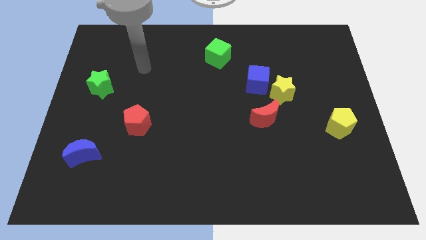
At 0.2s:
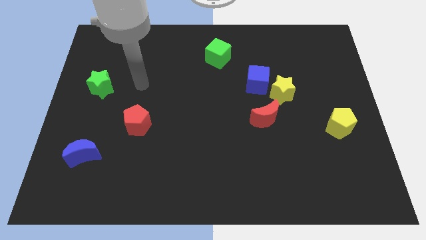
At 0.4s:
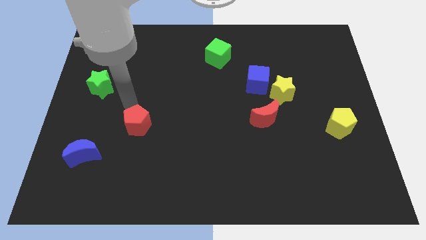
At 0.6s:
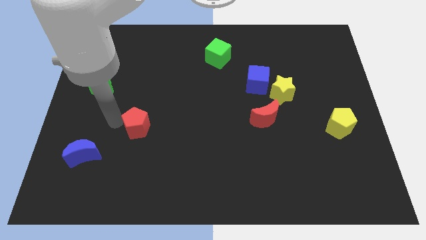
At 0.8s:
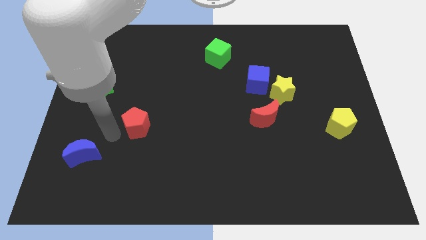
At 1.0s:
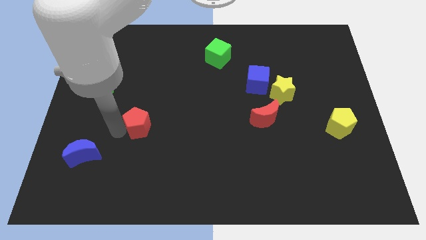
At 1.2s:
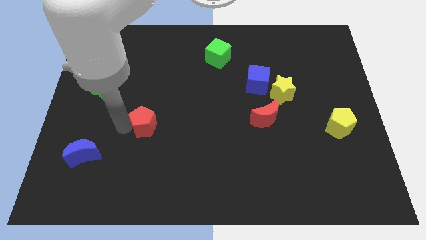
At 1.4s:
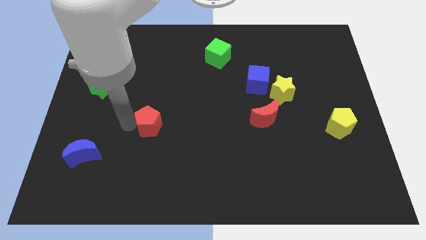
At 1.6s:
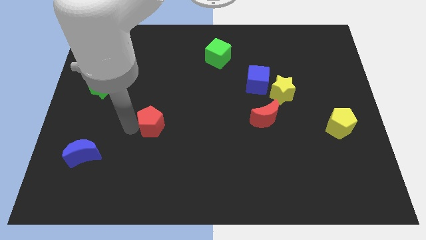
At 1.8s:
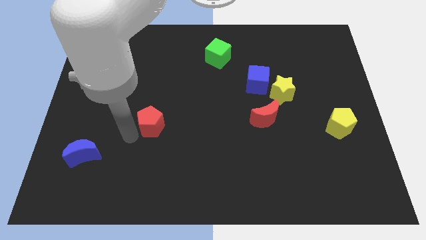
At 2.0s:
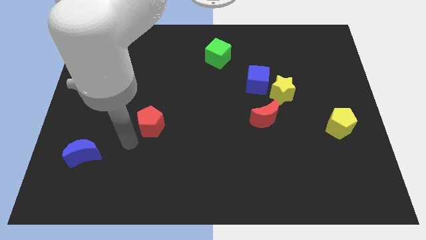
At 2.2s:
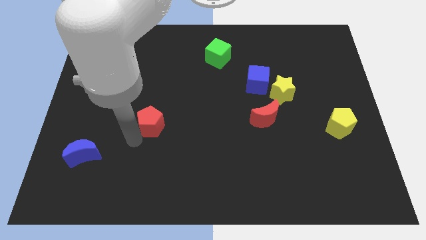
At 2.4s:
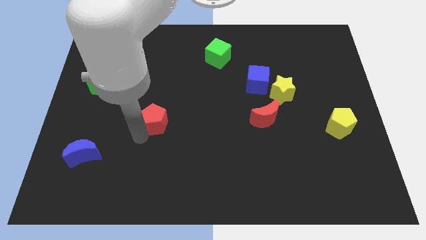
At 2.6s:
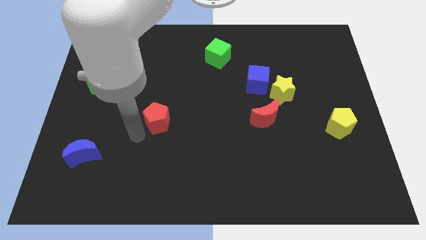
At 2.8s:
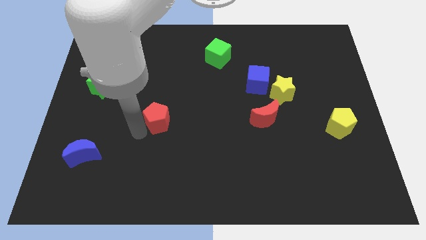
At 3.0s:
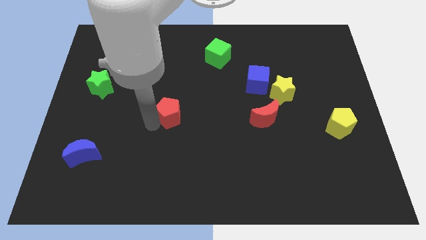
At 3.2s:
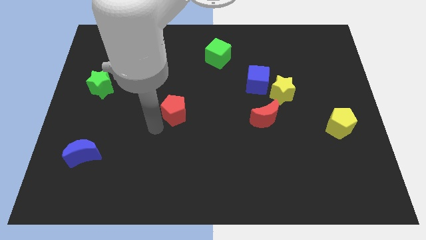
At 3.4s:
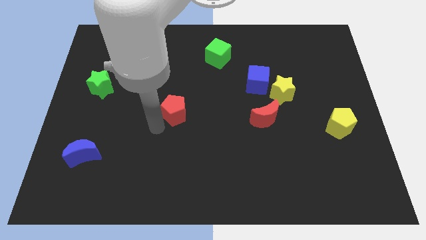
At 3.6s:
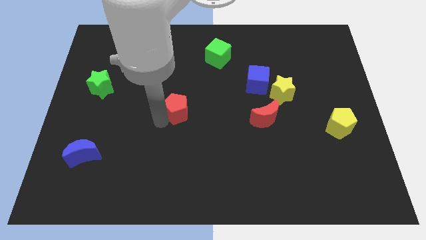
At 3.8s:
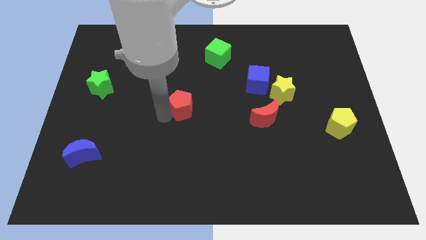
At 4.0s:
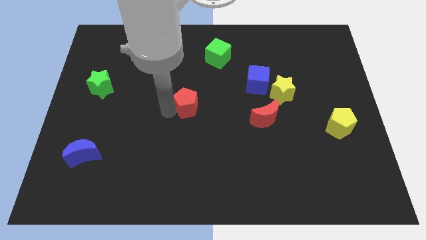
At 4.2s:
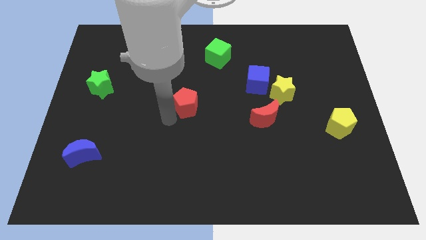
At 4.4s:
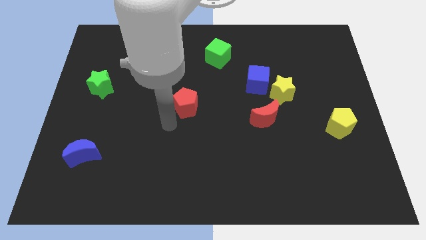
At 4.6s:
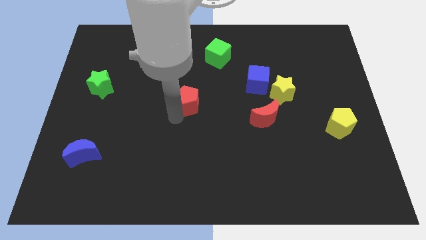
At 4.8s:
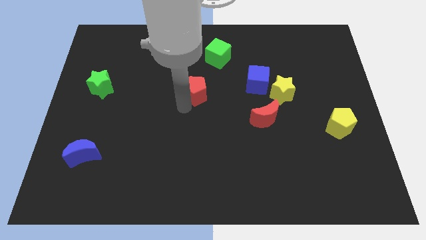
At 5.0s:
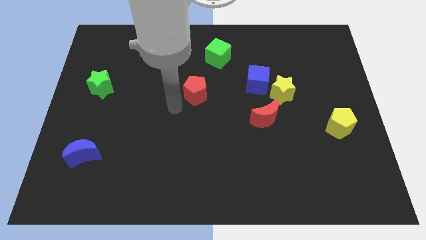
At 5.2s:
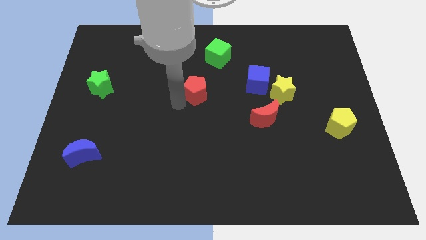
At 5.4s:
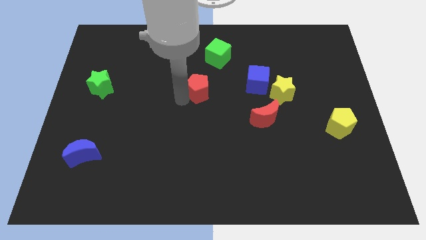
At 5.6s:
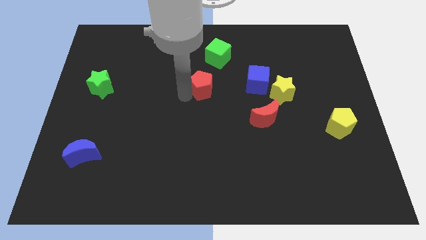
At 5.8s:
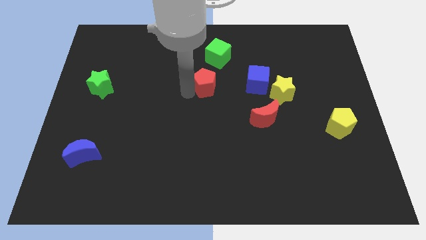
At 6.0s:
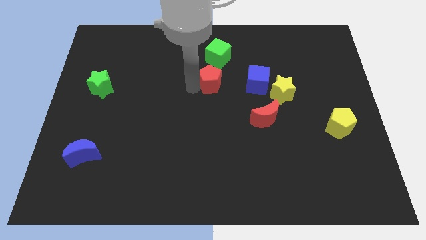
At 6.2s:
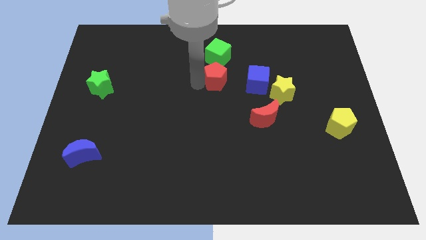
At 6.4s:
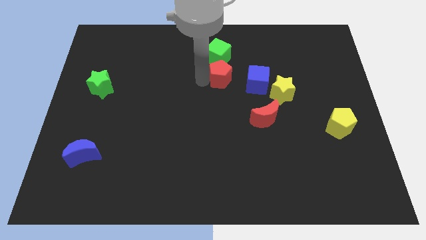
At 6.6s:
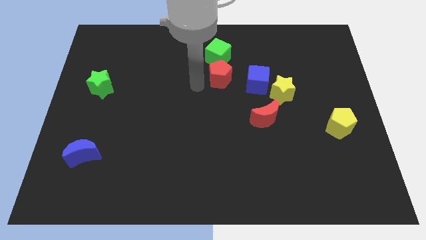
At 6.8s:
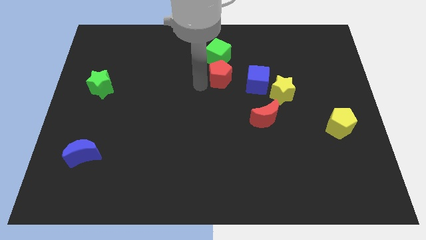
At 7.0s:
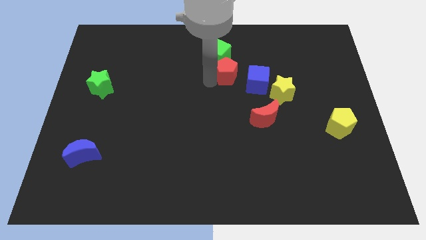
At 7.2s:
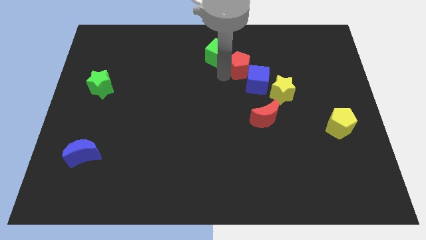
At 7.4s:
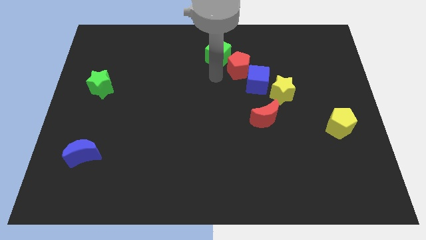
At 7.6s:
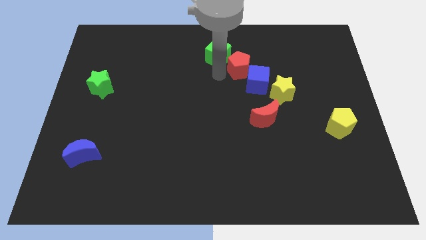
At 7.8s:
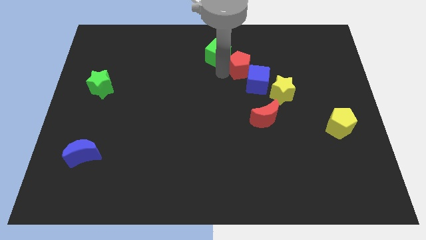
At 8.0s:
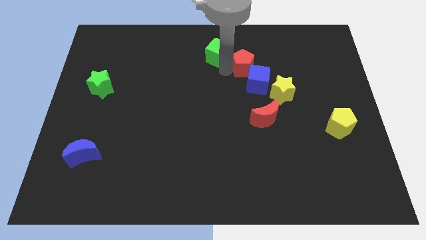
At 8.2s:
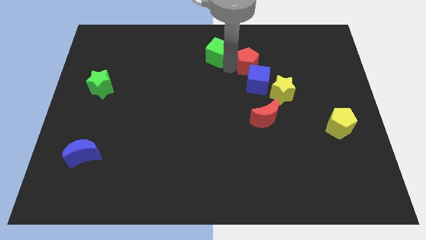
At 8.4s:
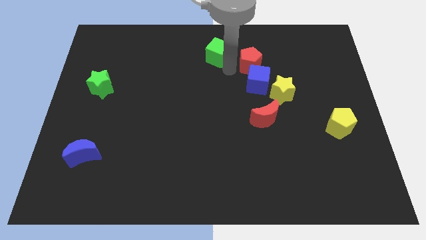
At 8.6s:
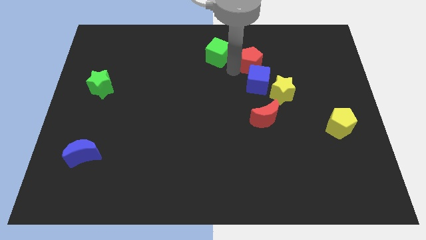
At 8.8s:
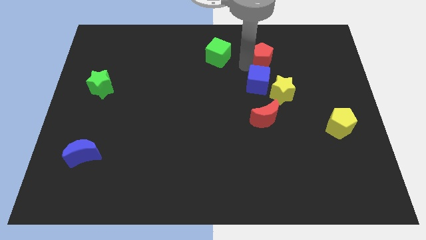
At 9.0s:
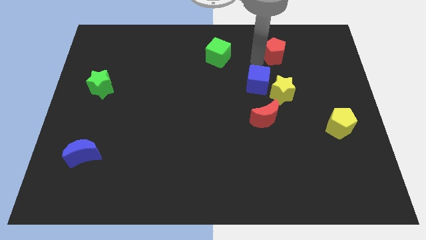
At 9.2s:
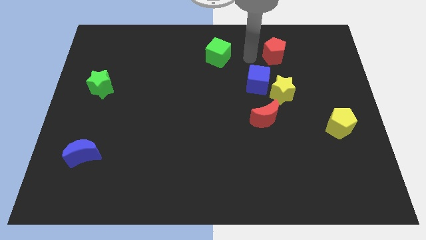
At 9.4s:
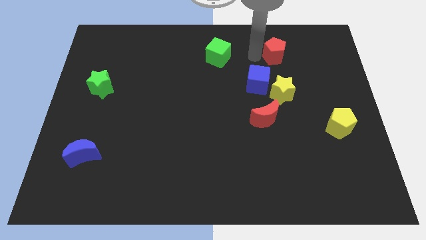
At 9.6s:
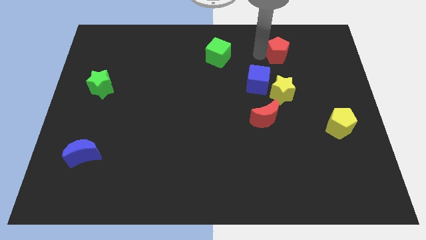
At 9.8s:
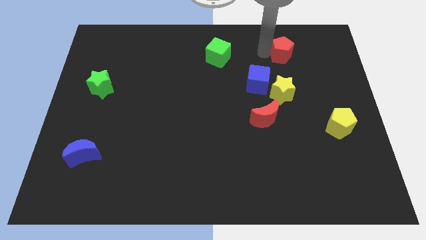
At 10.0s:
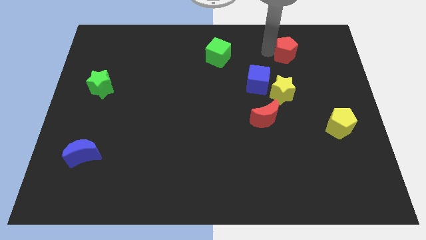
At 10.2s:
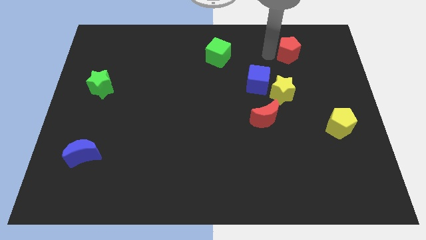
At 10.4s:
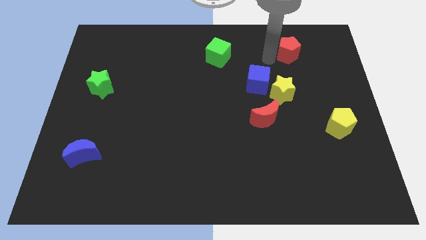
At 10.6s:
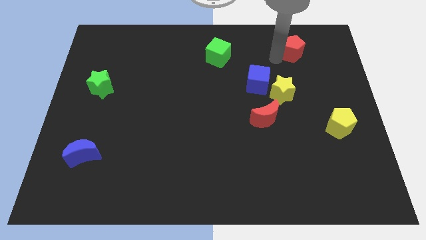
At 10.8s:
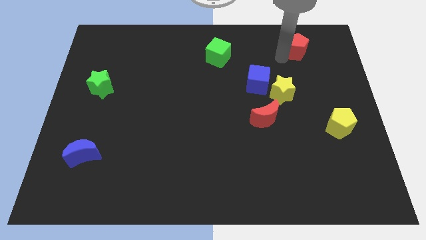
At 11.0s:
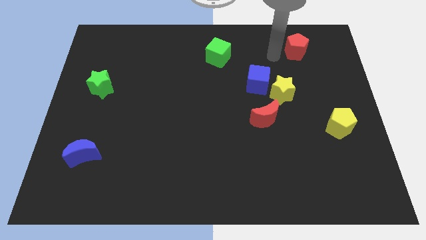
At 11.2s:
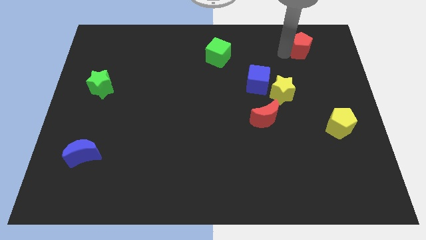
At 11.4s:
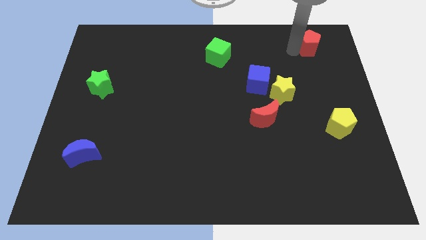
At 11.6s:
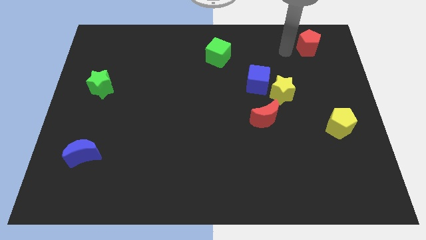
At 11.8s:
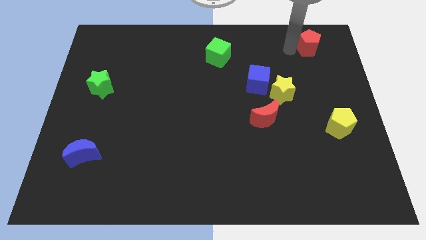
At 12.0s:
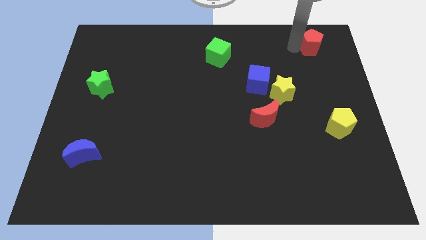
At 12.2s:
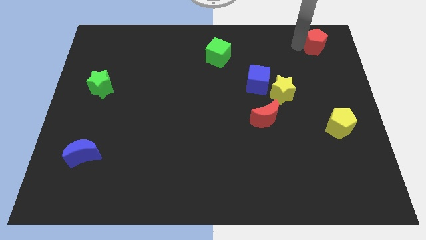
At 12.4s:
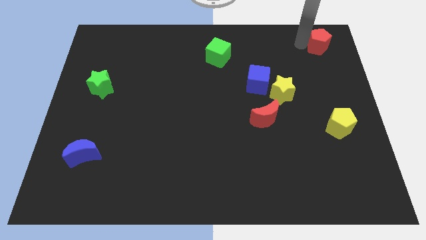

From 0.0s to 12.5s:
push the red pentagon to the top right
